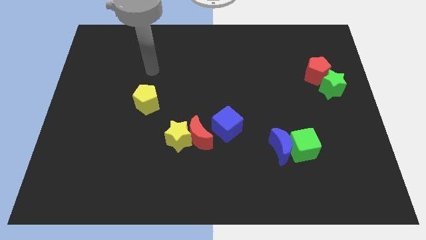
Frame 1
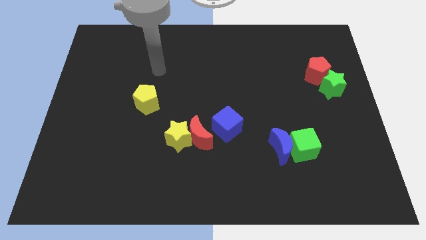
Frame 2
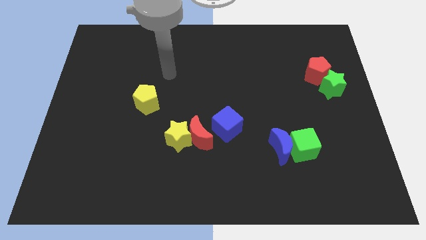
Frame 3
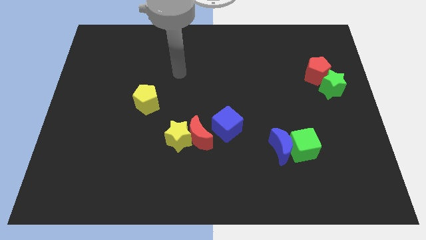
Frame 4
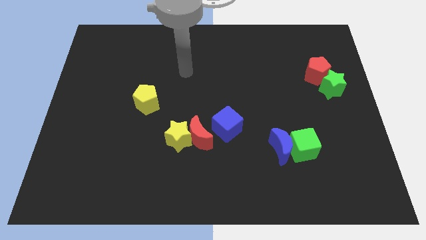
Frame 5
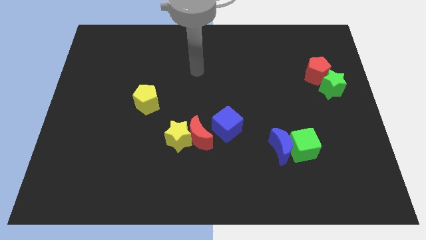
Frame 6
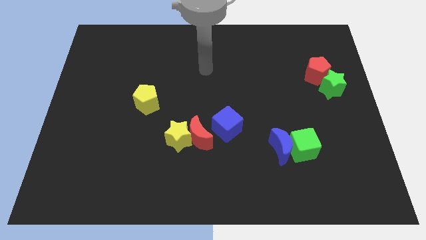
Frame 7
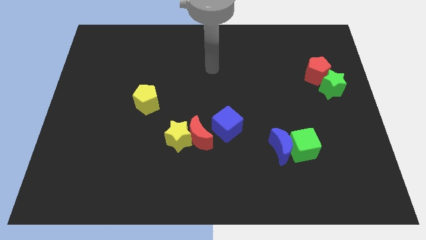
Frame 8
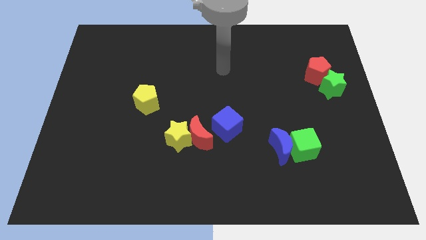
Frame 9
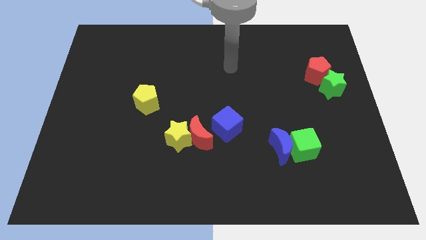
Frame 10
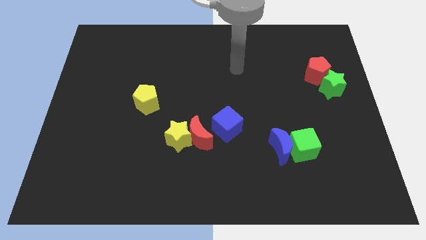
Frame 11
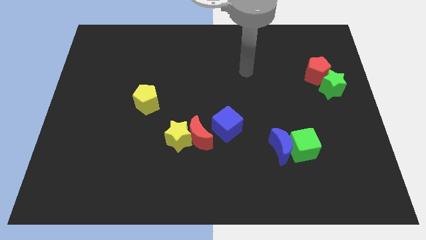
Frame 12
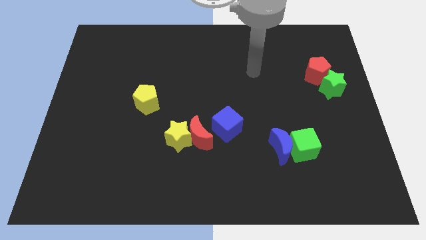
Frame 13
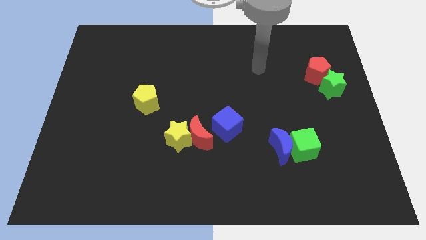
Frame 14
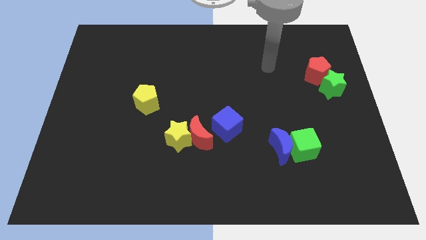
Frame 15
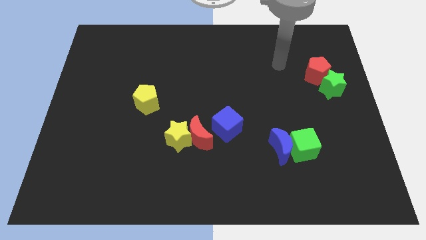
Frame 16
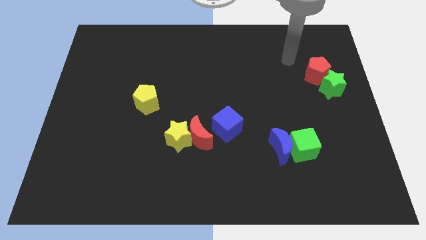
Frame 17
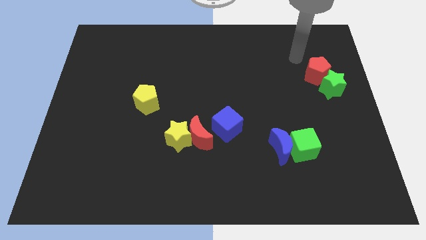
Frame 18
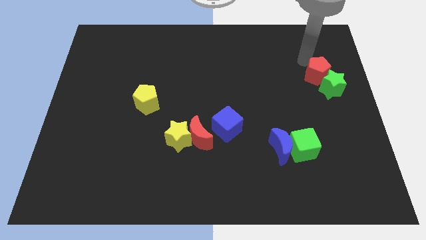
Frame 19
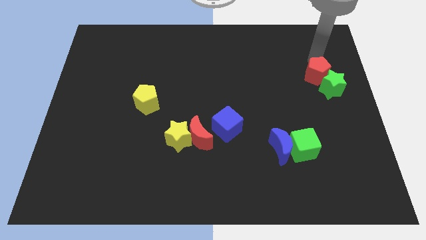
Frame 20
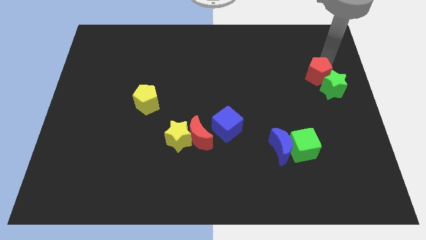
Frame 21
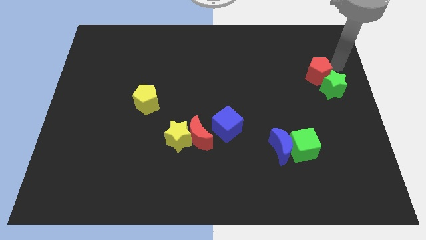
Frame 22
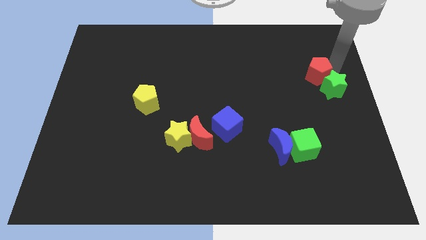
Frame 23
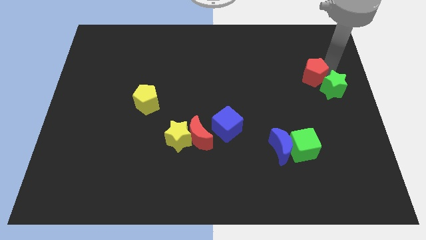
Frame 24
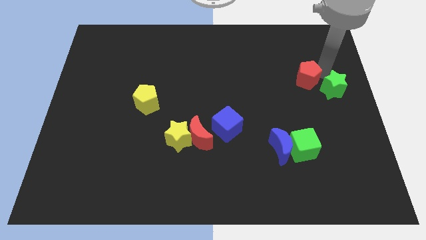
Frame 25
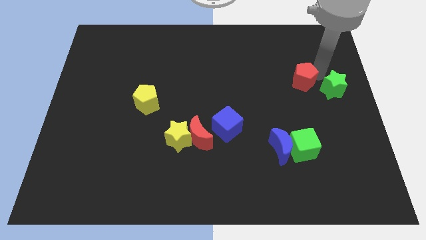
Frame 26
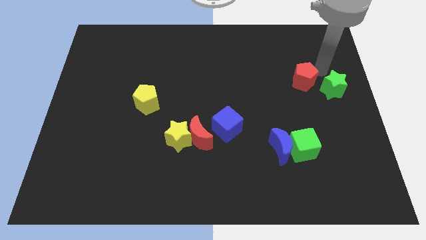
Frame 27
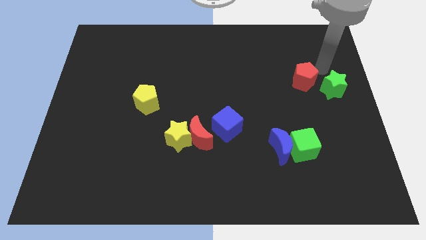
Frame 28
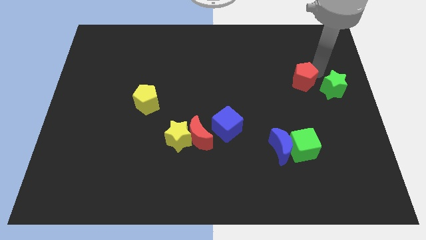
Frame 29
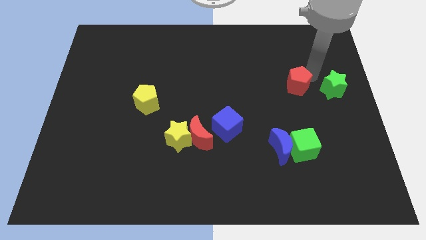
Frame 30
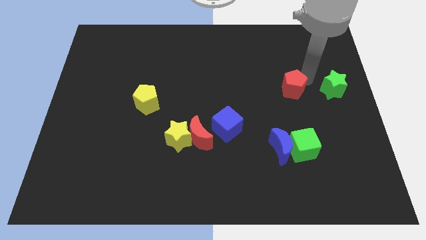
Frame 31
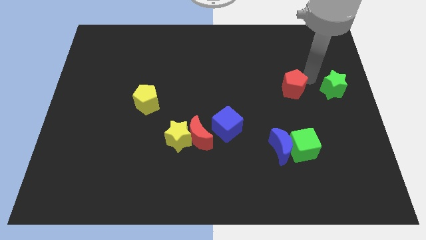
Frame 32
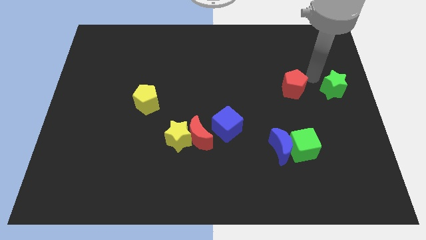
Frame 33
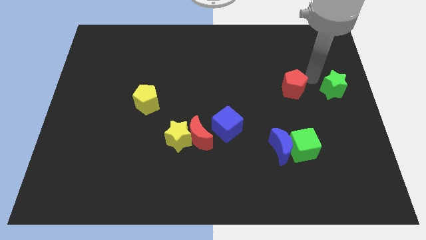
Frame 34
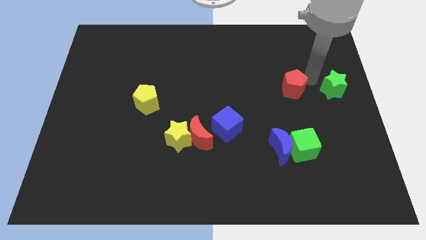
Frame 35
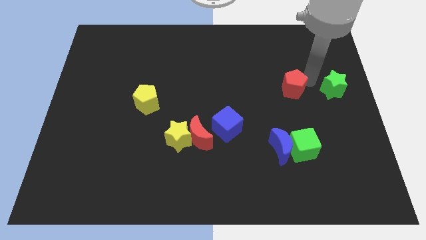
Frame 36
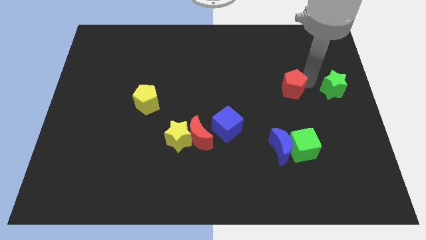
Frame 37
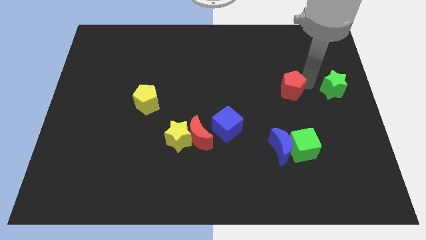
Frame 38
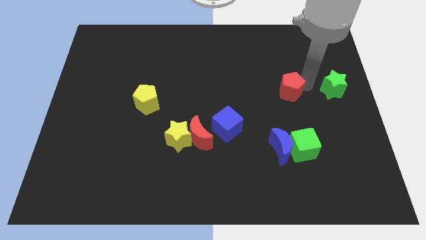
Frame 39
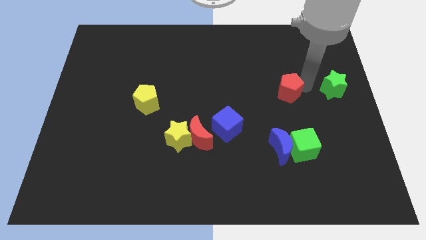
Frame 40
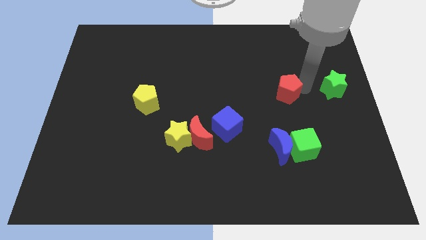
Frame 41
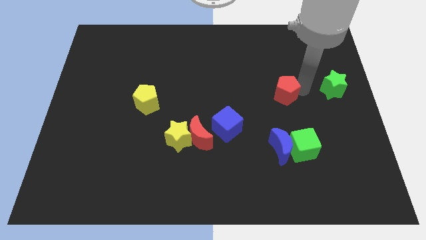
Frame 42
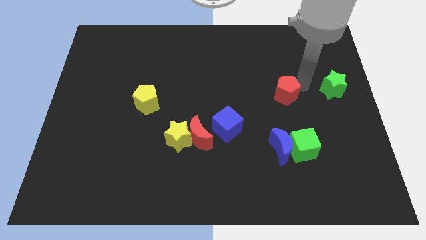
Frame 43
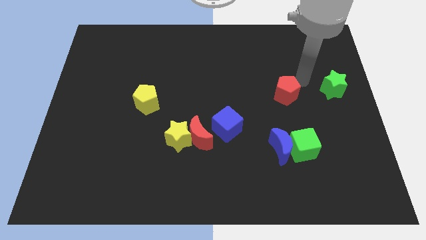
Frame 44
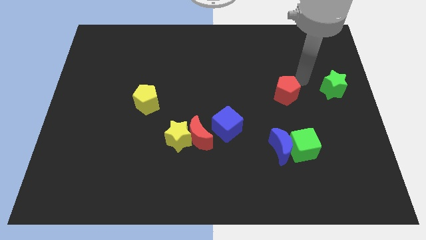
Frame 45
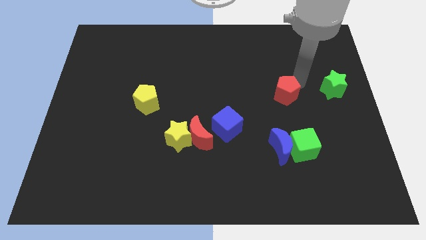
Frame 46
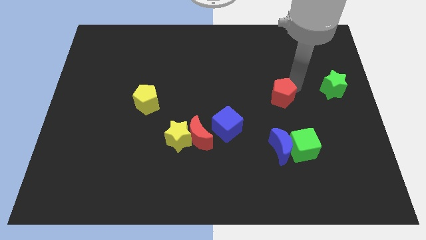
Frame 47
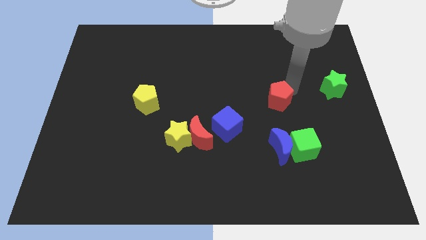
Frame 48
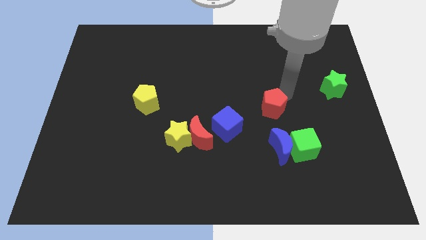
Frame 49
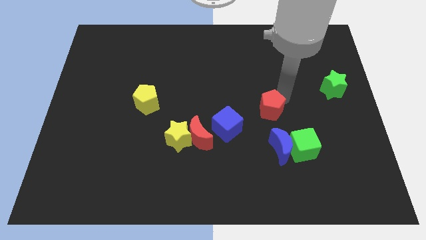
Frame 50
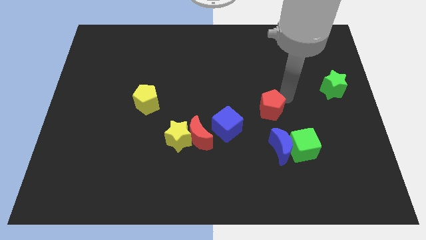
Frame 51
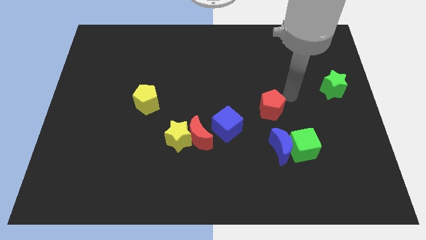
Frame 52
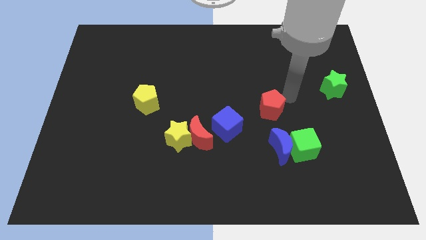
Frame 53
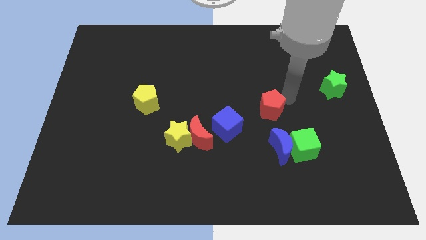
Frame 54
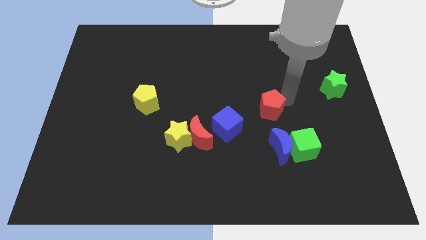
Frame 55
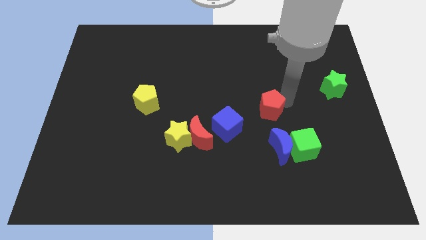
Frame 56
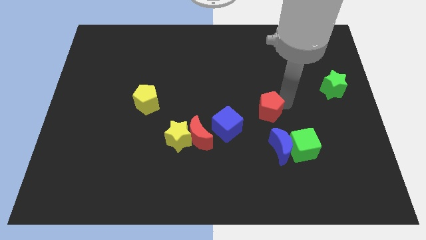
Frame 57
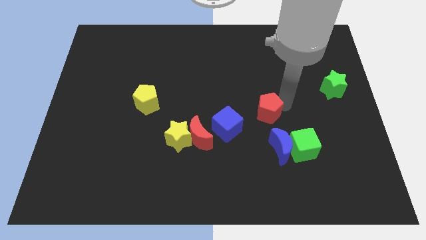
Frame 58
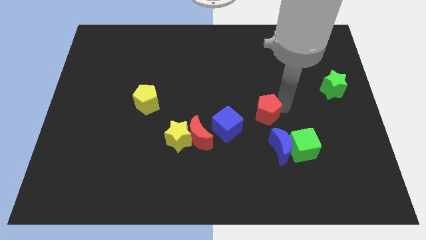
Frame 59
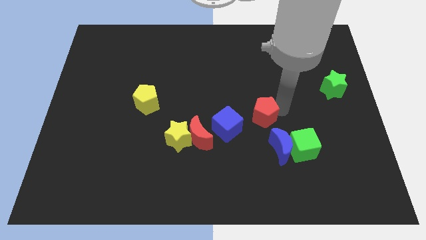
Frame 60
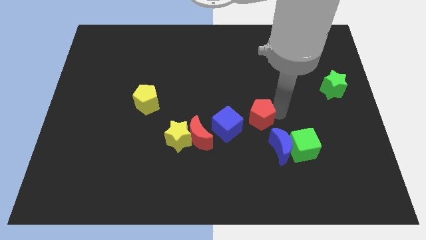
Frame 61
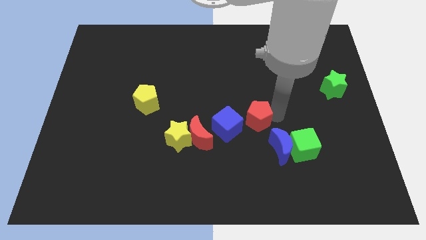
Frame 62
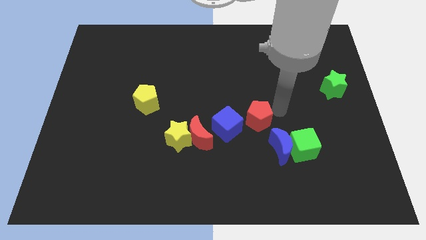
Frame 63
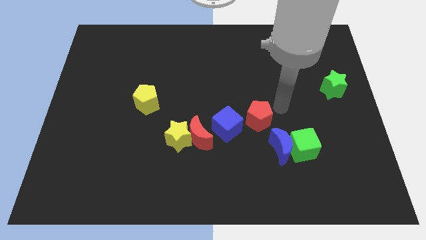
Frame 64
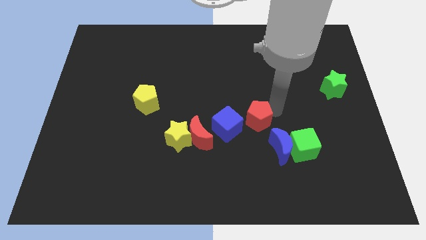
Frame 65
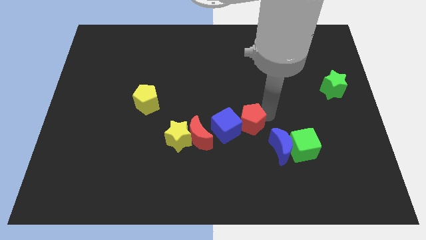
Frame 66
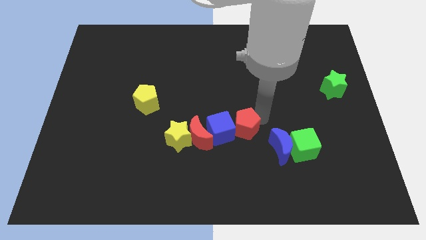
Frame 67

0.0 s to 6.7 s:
push the red pentagon to the right of the yellow star
